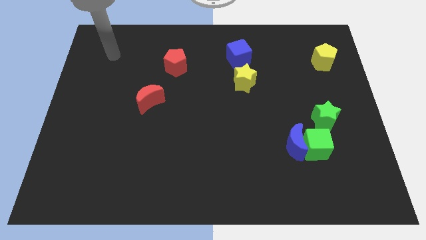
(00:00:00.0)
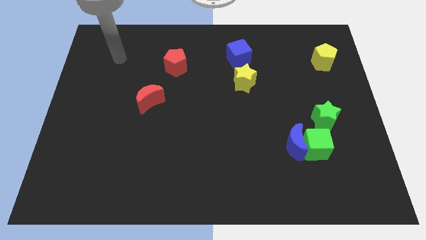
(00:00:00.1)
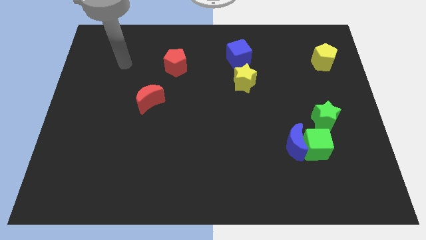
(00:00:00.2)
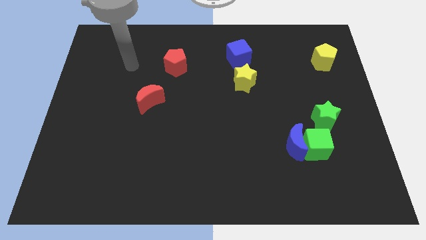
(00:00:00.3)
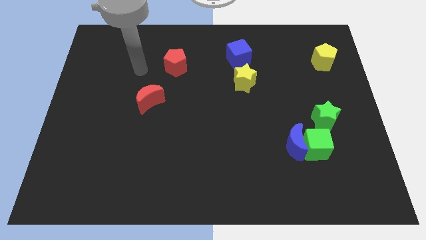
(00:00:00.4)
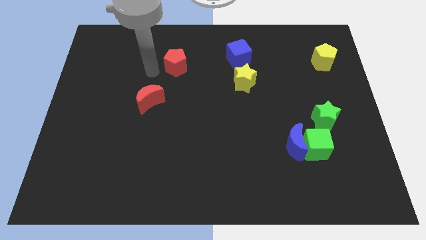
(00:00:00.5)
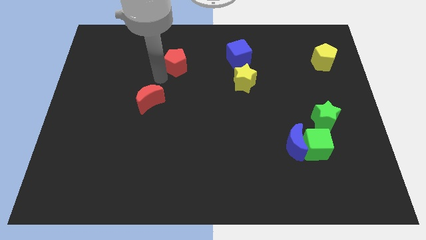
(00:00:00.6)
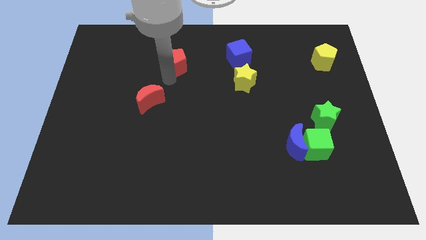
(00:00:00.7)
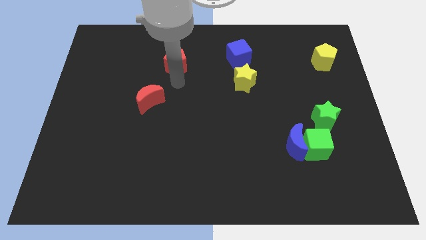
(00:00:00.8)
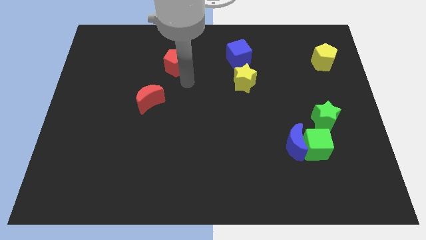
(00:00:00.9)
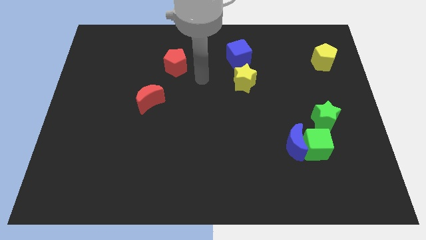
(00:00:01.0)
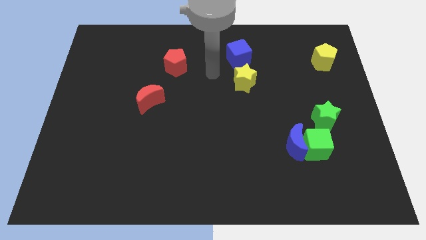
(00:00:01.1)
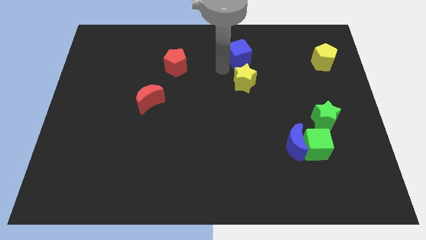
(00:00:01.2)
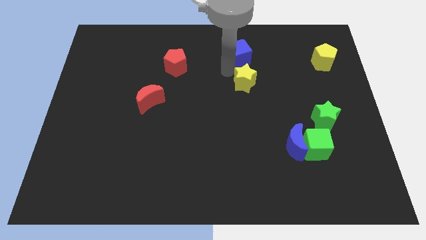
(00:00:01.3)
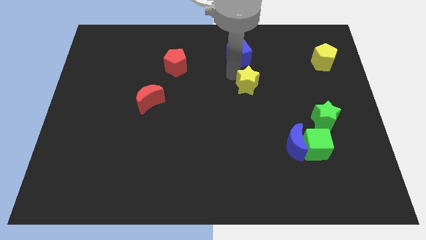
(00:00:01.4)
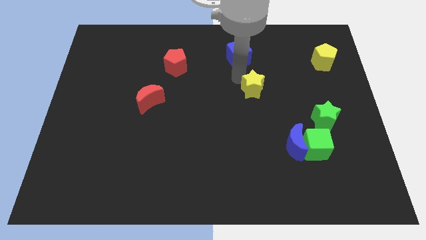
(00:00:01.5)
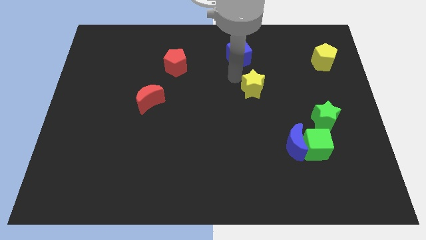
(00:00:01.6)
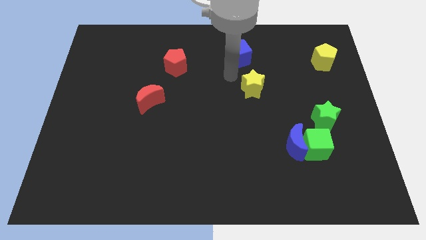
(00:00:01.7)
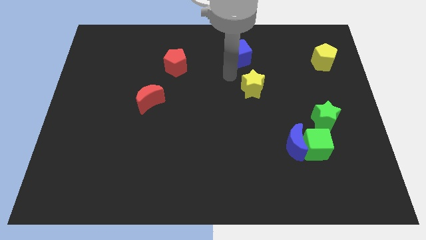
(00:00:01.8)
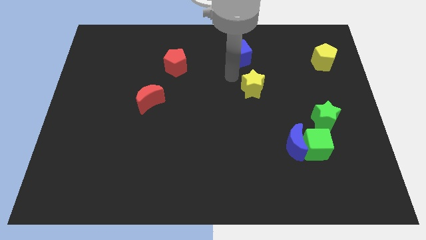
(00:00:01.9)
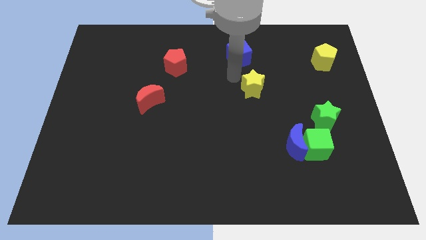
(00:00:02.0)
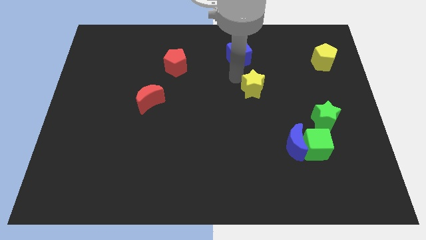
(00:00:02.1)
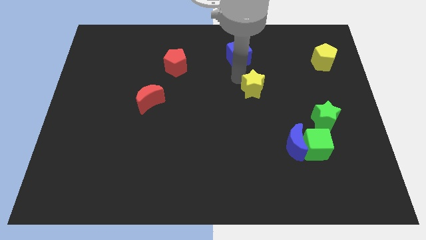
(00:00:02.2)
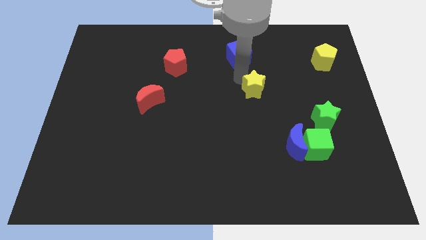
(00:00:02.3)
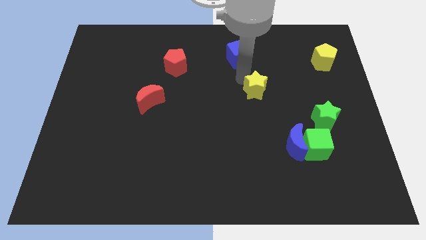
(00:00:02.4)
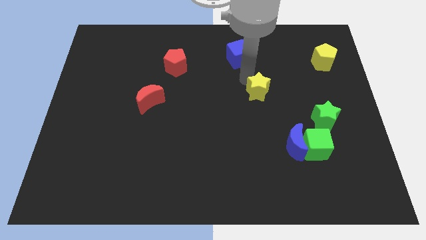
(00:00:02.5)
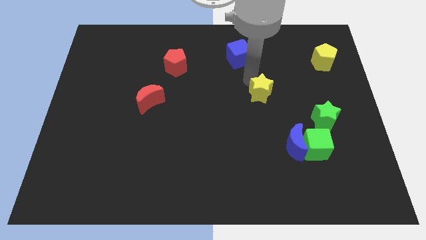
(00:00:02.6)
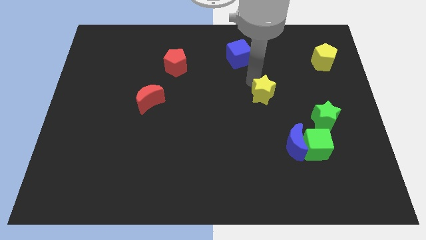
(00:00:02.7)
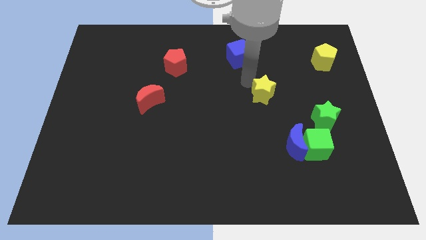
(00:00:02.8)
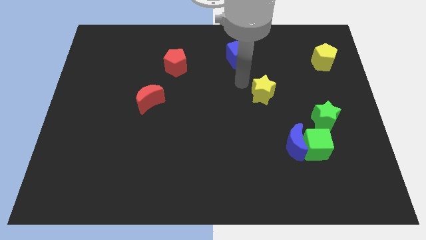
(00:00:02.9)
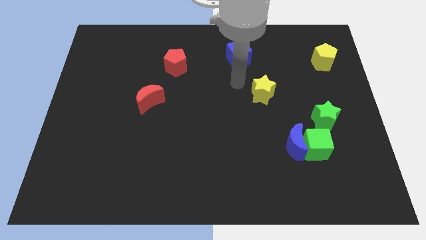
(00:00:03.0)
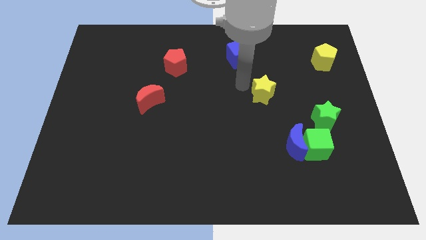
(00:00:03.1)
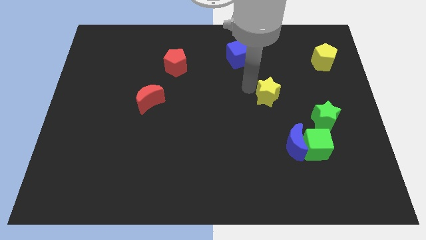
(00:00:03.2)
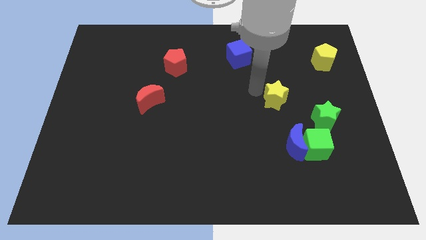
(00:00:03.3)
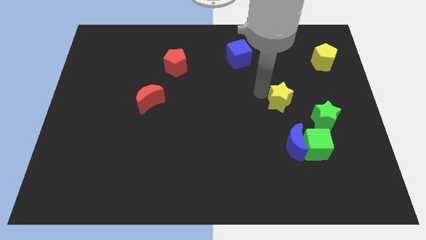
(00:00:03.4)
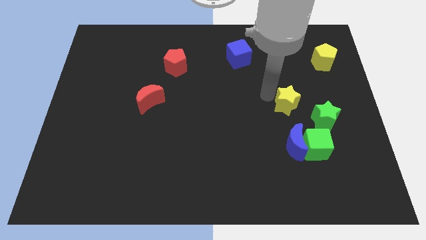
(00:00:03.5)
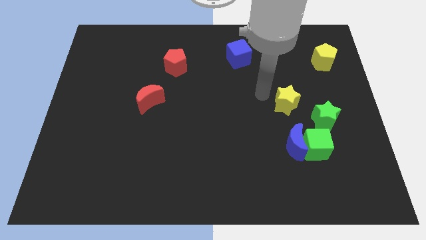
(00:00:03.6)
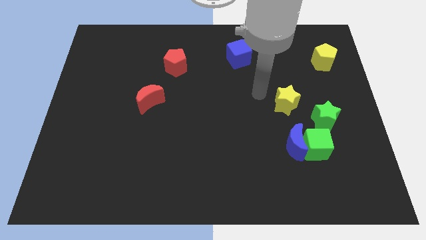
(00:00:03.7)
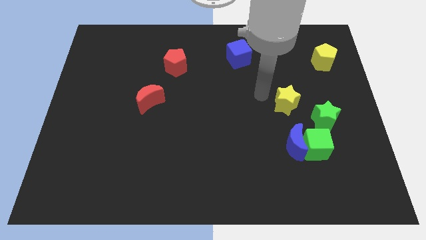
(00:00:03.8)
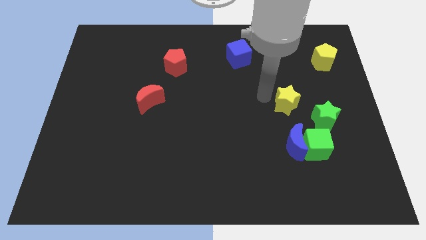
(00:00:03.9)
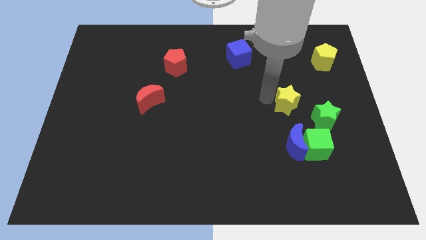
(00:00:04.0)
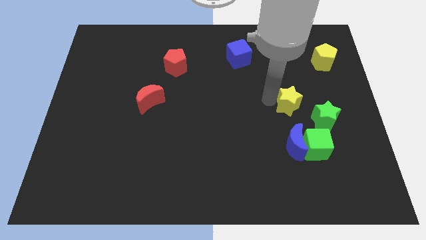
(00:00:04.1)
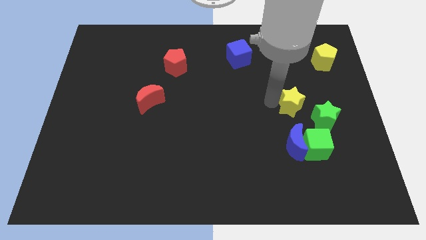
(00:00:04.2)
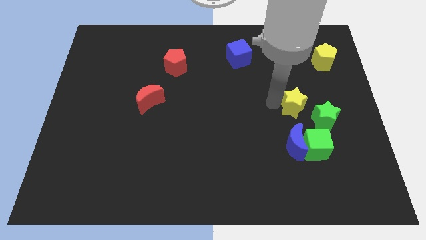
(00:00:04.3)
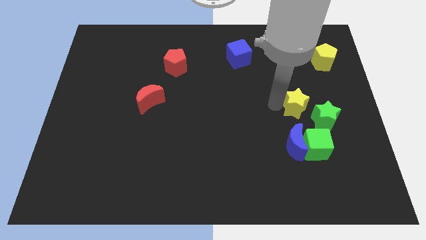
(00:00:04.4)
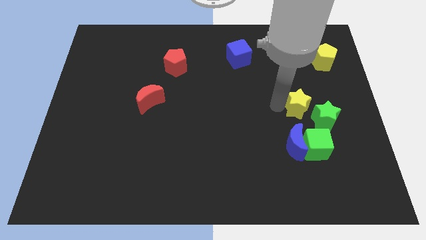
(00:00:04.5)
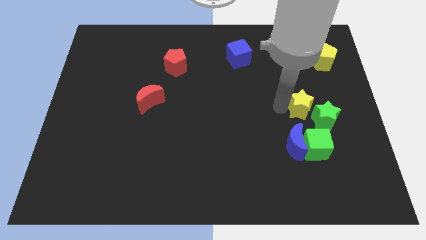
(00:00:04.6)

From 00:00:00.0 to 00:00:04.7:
push the yellow star to the green star

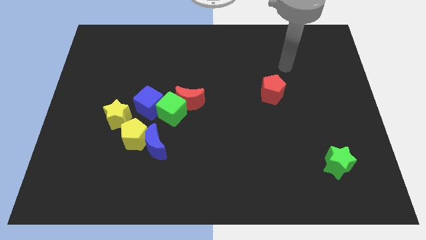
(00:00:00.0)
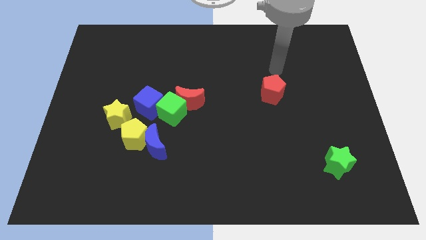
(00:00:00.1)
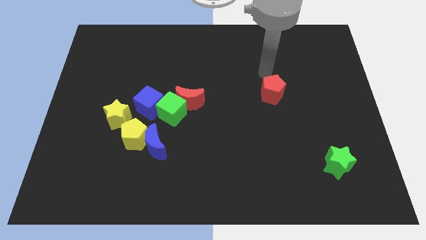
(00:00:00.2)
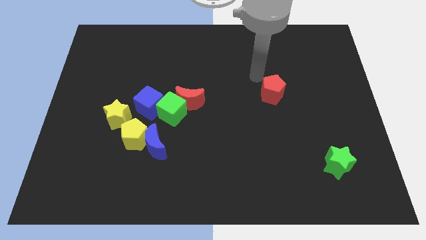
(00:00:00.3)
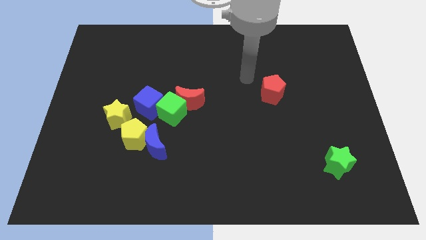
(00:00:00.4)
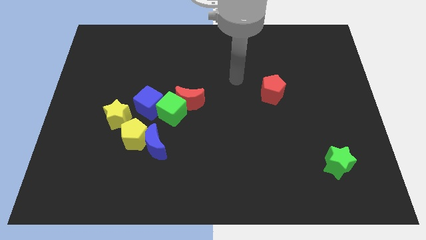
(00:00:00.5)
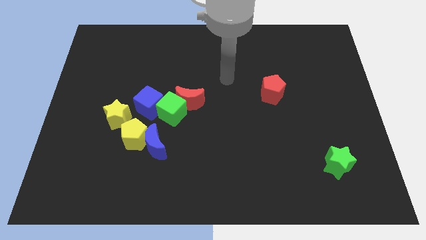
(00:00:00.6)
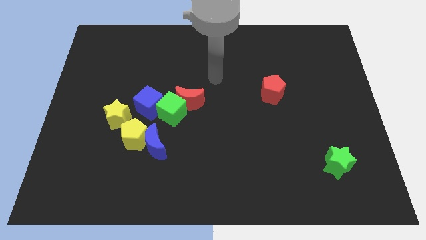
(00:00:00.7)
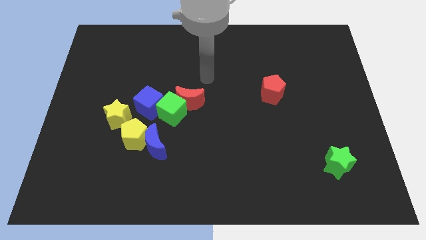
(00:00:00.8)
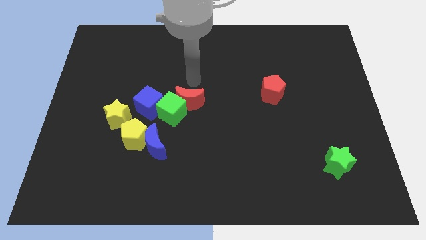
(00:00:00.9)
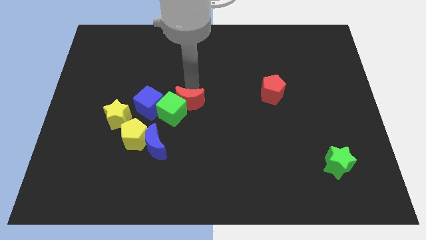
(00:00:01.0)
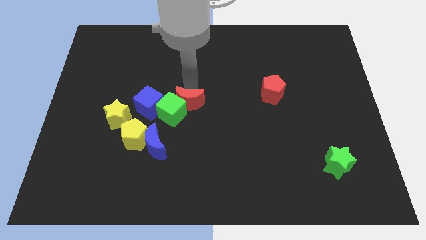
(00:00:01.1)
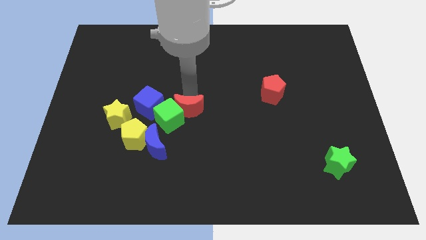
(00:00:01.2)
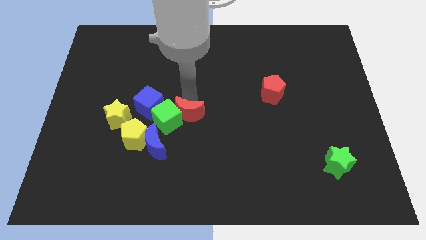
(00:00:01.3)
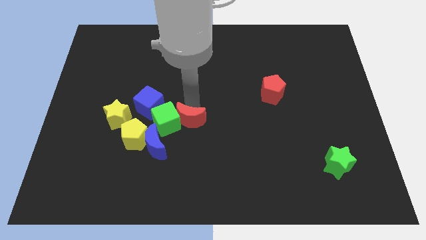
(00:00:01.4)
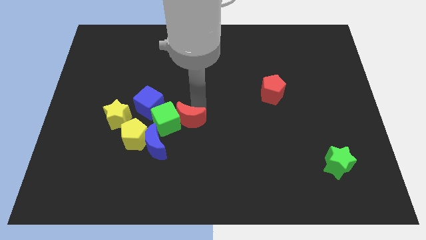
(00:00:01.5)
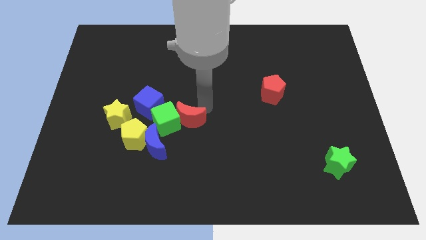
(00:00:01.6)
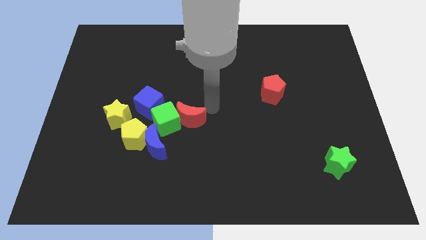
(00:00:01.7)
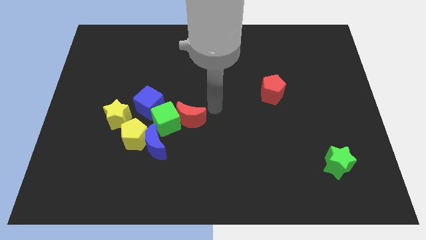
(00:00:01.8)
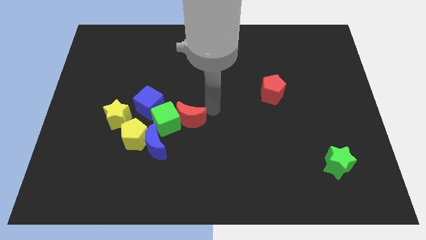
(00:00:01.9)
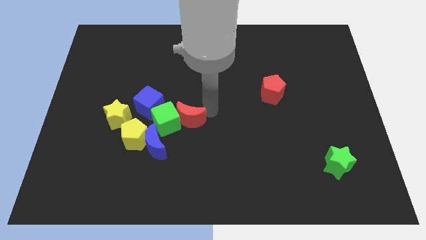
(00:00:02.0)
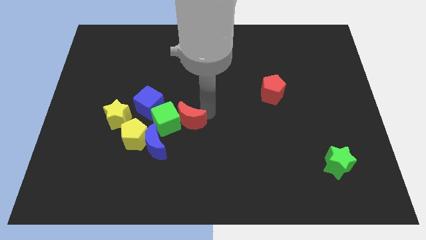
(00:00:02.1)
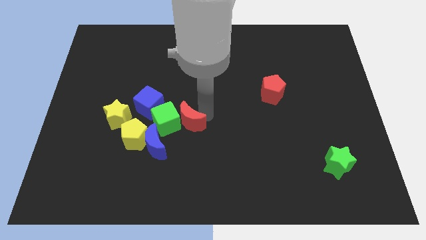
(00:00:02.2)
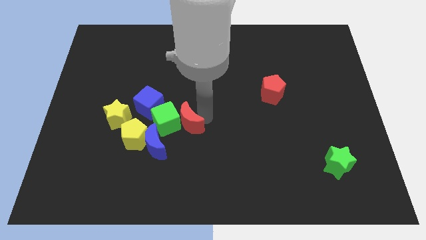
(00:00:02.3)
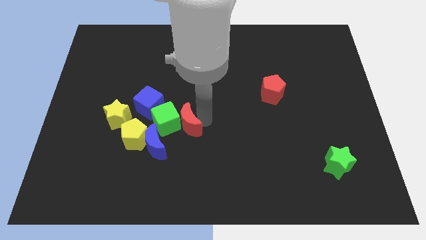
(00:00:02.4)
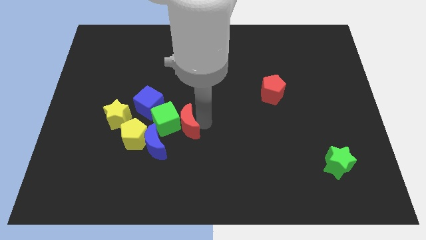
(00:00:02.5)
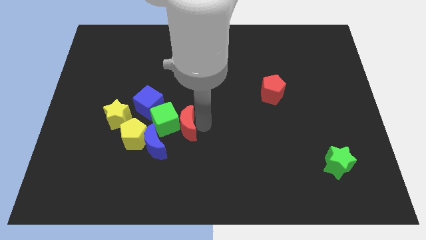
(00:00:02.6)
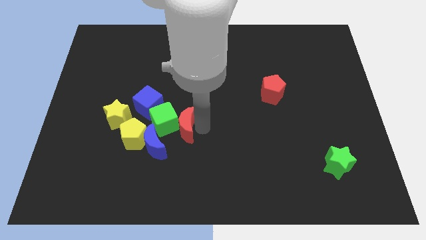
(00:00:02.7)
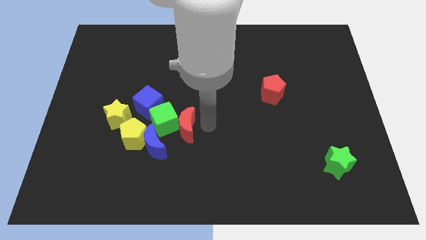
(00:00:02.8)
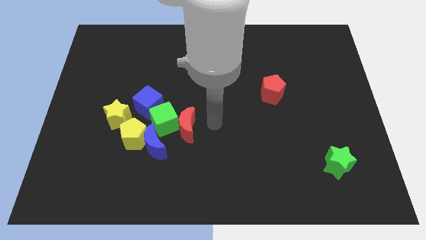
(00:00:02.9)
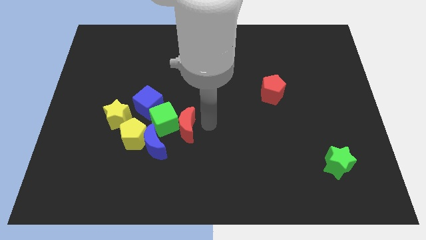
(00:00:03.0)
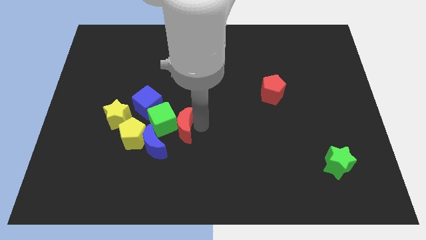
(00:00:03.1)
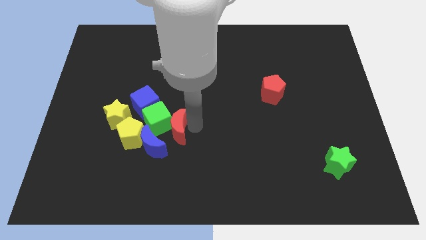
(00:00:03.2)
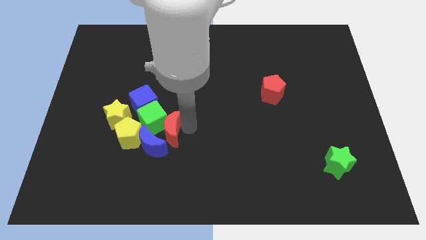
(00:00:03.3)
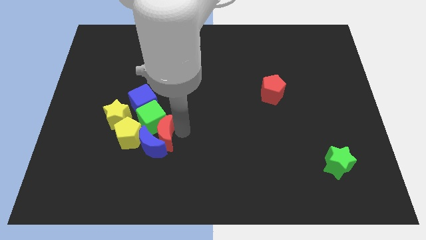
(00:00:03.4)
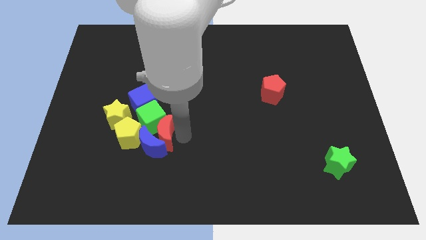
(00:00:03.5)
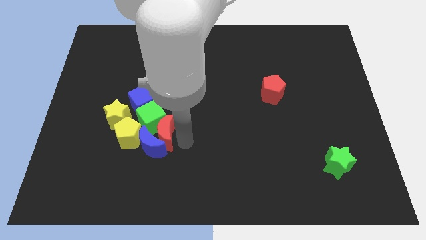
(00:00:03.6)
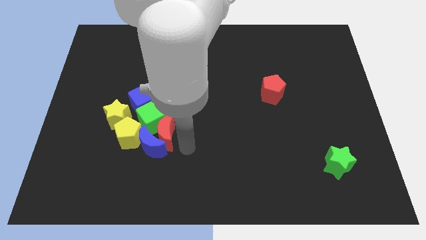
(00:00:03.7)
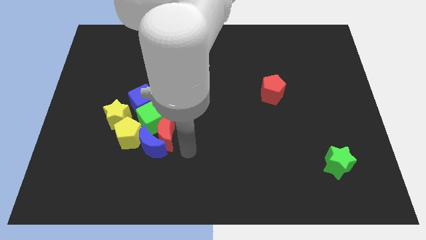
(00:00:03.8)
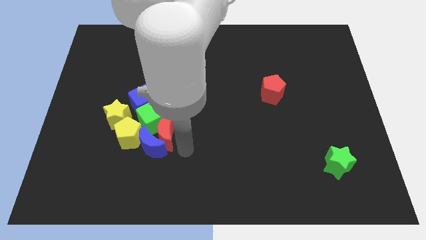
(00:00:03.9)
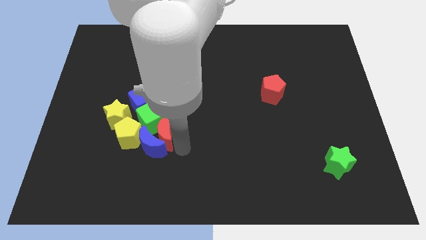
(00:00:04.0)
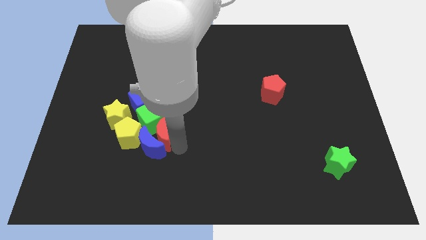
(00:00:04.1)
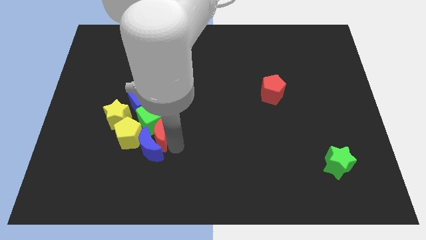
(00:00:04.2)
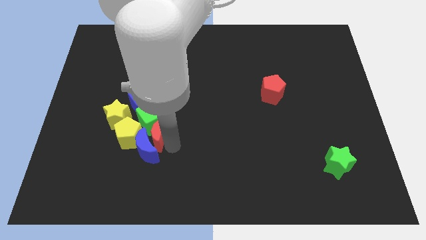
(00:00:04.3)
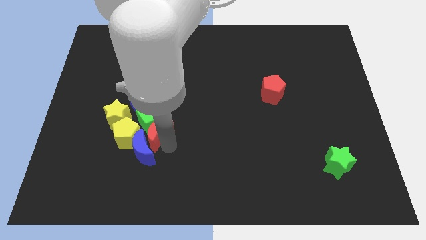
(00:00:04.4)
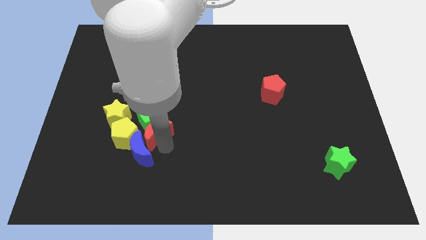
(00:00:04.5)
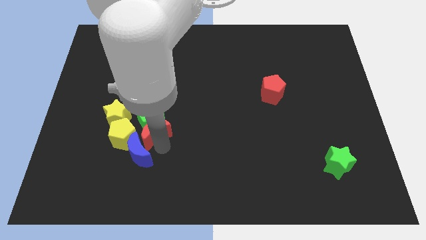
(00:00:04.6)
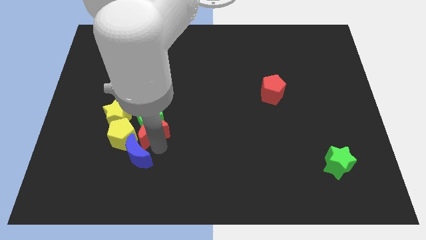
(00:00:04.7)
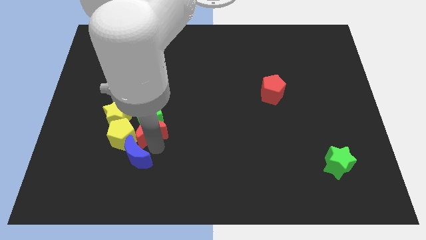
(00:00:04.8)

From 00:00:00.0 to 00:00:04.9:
slide the red moon close to the yellow pentagon
